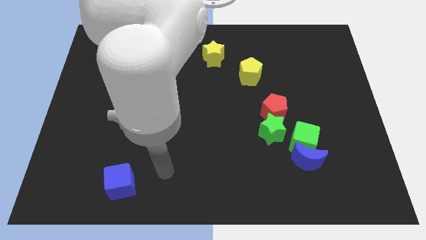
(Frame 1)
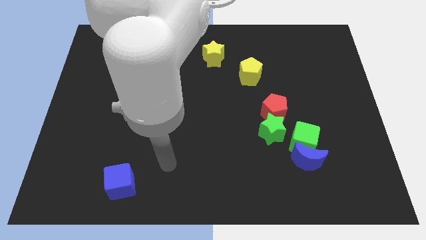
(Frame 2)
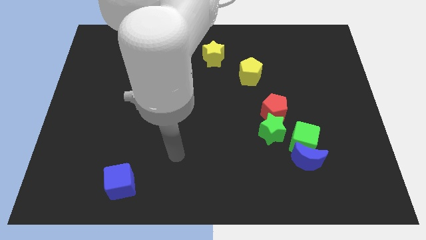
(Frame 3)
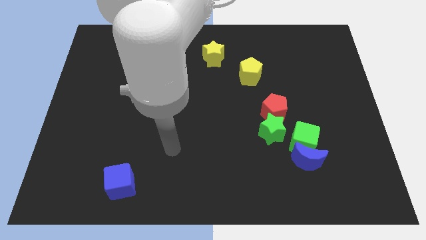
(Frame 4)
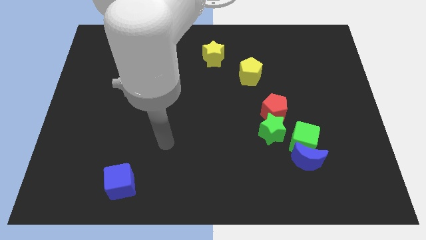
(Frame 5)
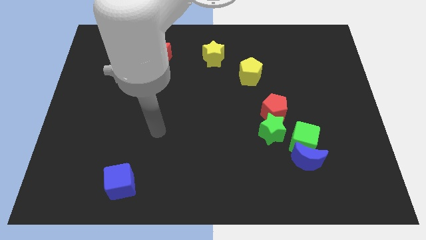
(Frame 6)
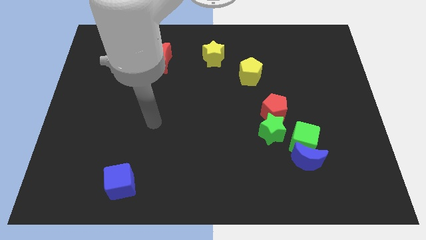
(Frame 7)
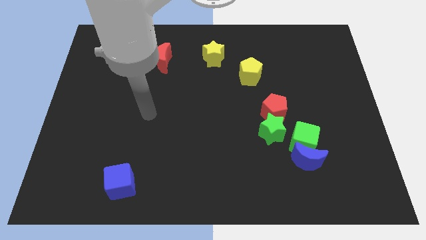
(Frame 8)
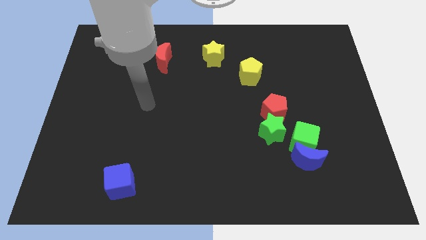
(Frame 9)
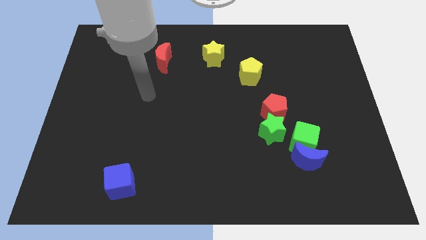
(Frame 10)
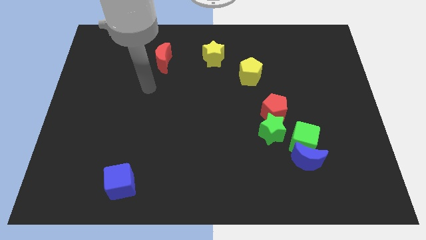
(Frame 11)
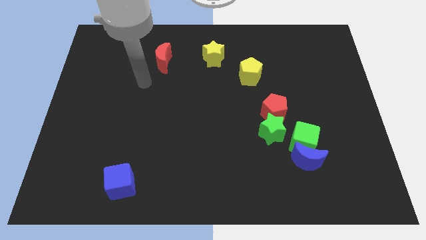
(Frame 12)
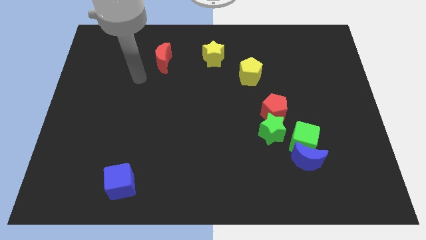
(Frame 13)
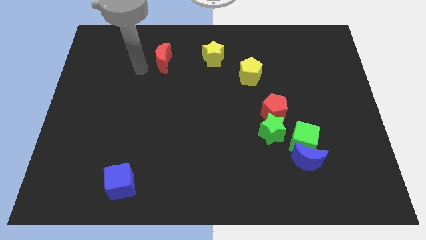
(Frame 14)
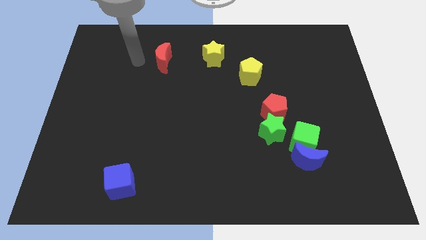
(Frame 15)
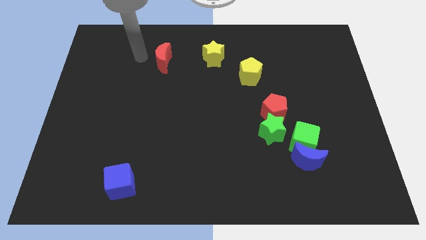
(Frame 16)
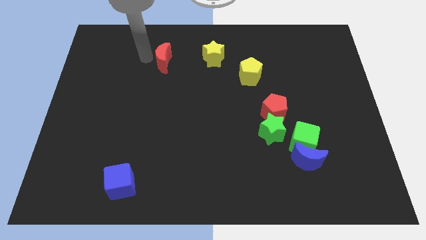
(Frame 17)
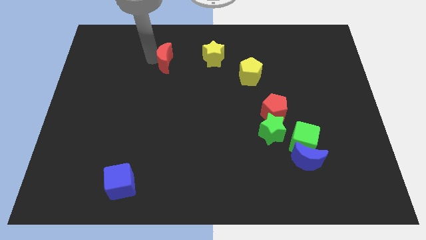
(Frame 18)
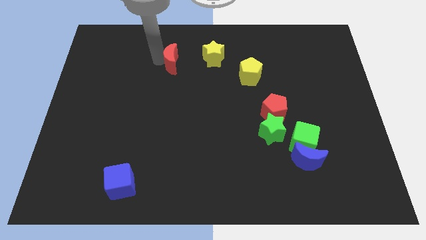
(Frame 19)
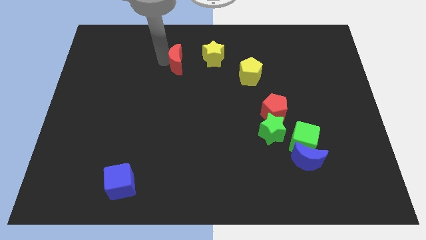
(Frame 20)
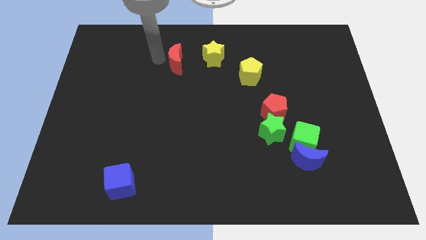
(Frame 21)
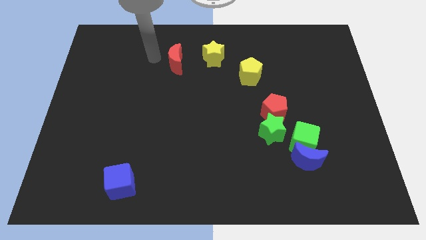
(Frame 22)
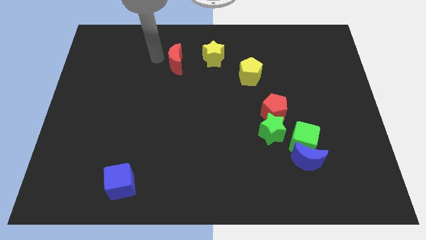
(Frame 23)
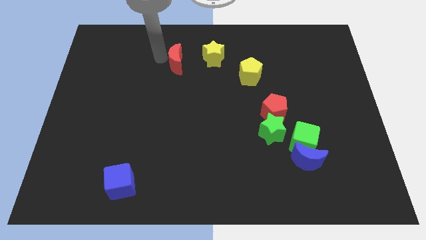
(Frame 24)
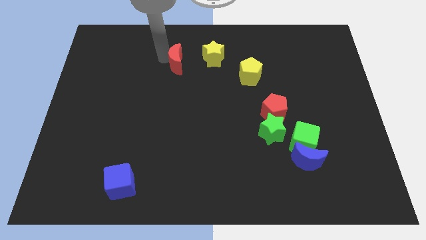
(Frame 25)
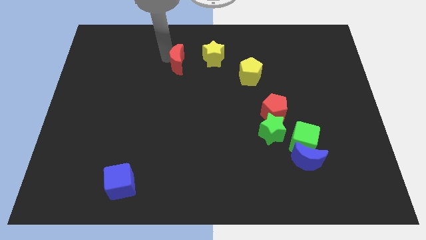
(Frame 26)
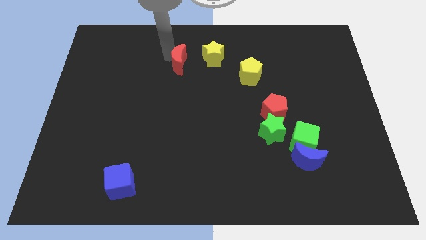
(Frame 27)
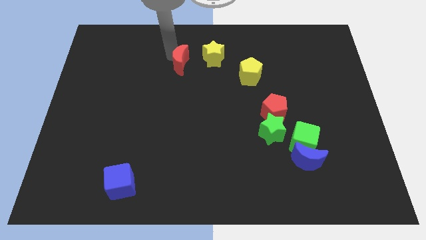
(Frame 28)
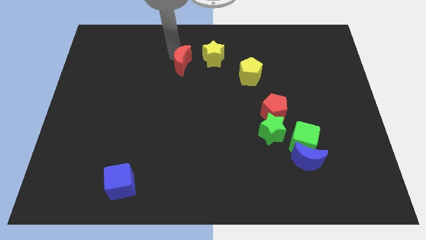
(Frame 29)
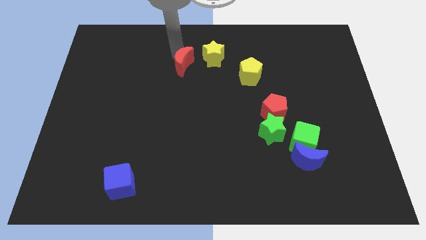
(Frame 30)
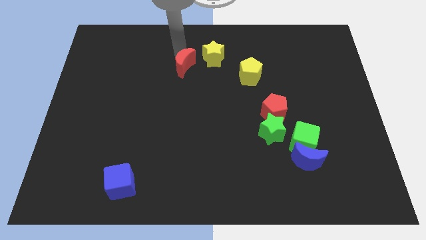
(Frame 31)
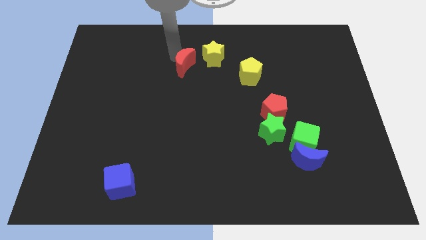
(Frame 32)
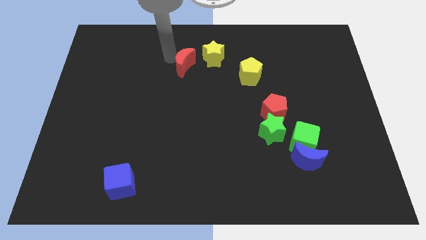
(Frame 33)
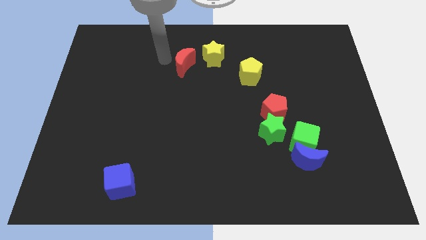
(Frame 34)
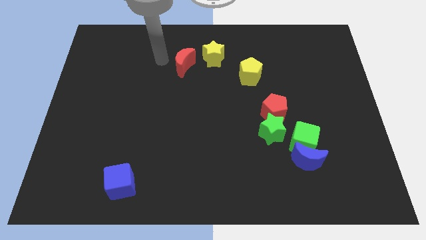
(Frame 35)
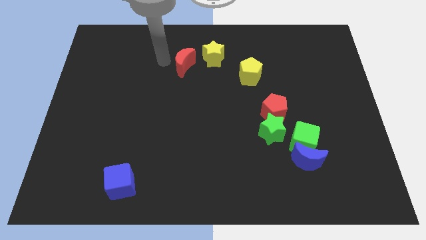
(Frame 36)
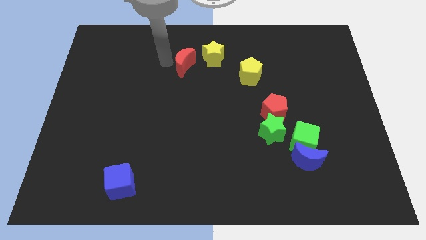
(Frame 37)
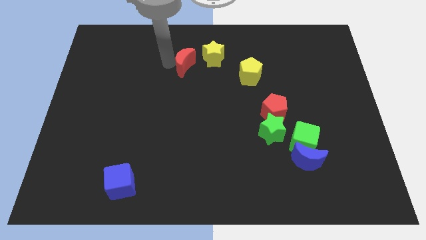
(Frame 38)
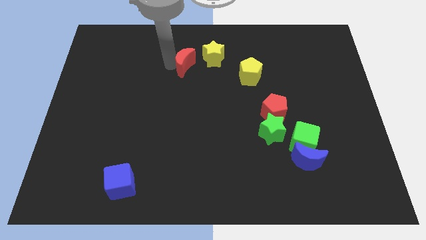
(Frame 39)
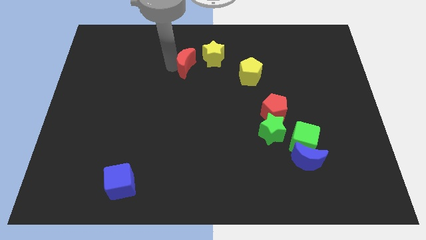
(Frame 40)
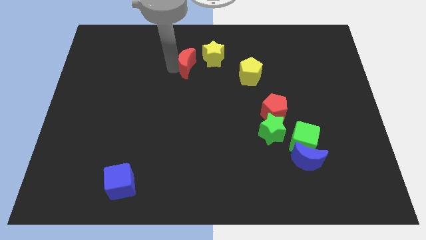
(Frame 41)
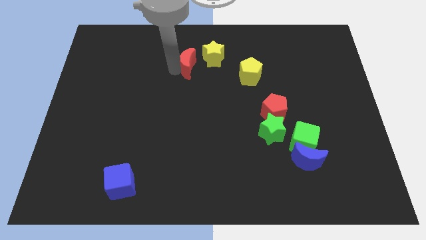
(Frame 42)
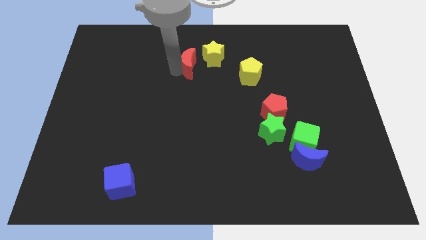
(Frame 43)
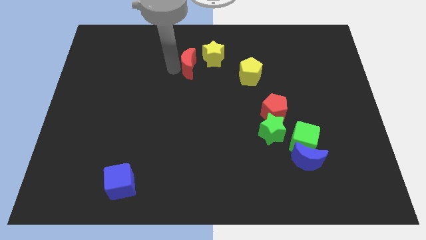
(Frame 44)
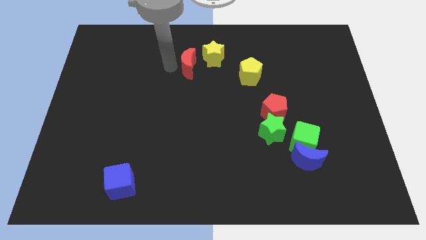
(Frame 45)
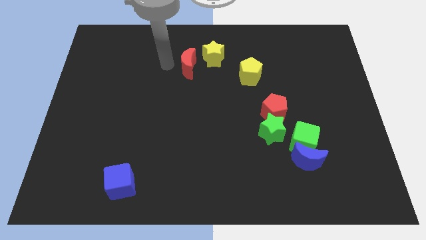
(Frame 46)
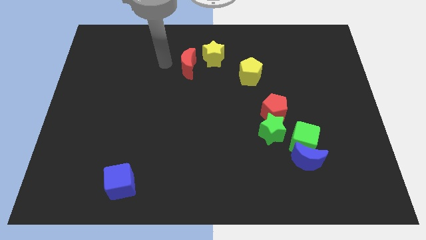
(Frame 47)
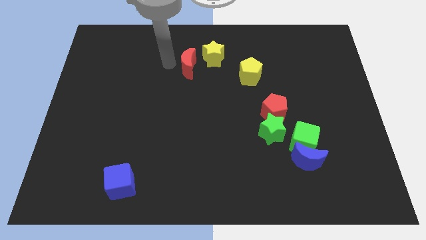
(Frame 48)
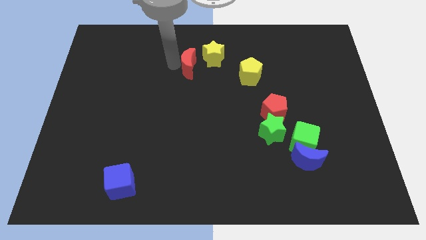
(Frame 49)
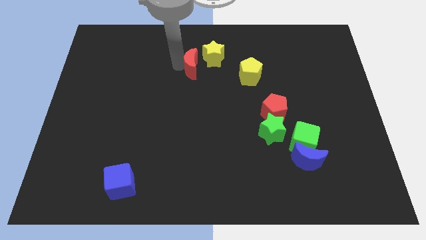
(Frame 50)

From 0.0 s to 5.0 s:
push the red moon to the right a little bit

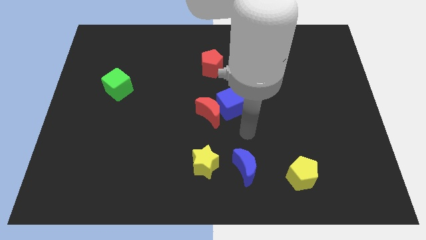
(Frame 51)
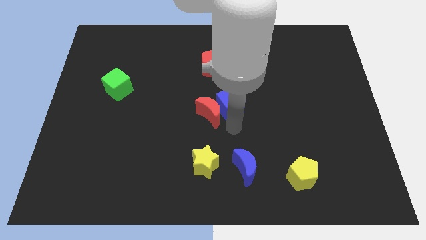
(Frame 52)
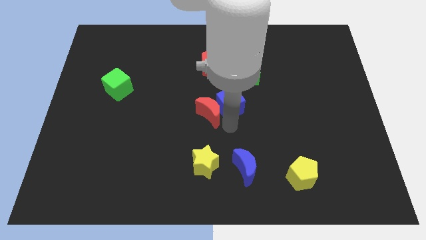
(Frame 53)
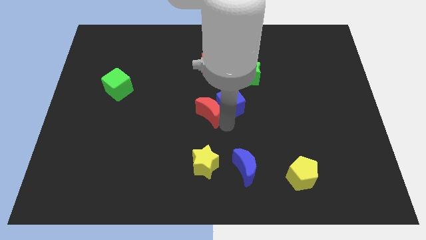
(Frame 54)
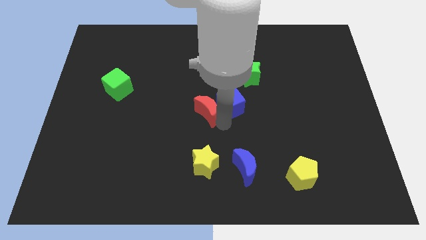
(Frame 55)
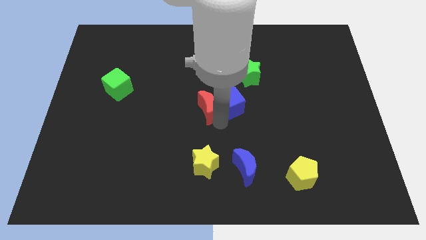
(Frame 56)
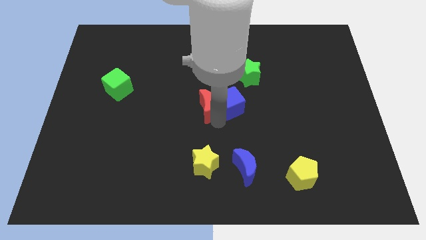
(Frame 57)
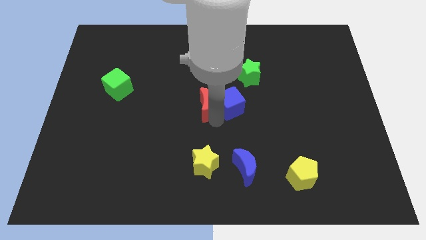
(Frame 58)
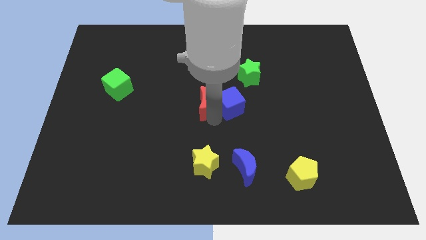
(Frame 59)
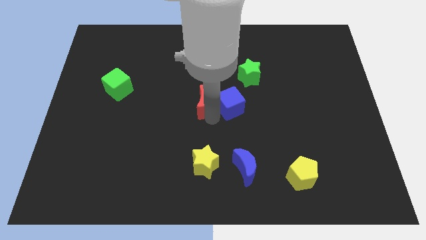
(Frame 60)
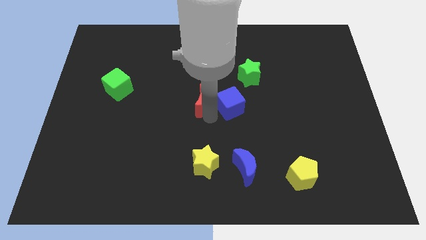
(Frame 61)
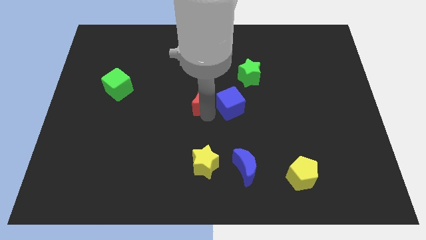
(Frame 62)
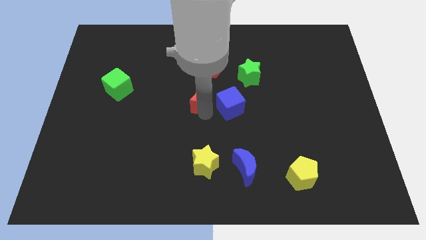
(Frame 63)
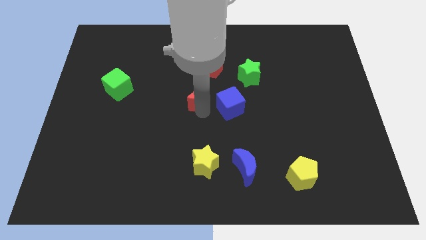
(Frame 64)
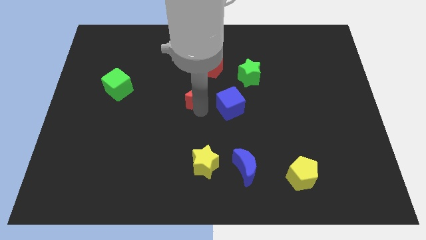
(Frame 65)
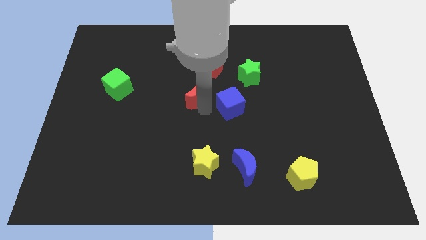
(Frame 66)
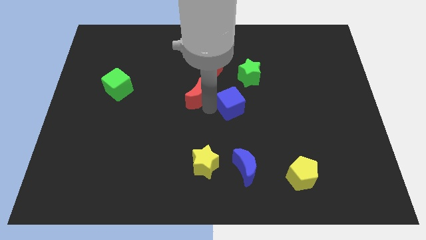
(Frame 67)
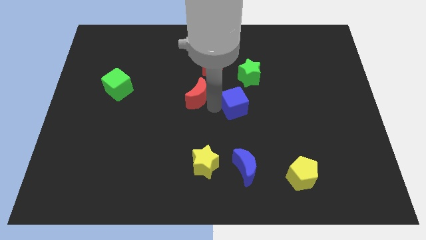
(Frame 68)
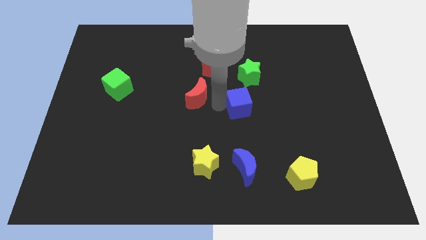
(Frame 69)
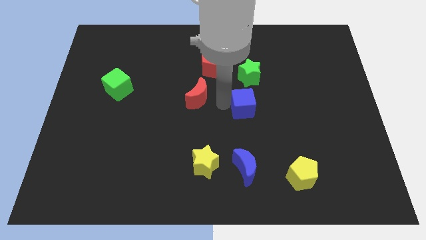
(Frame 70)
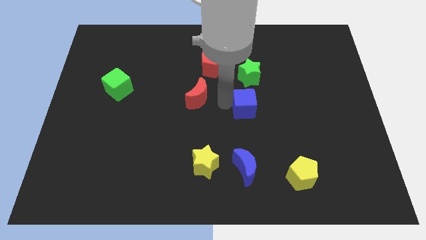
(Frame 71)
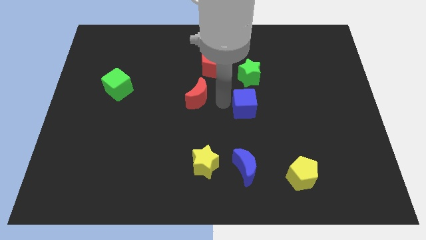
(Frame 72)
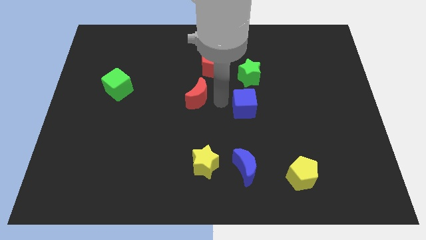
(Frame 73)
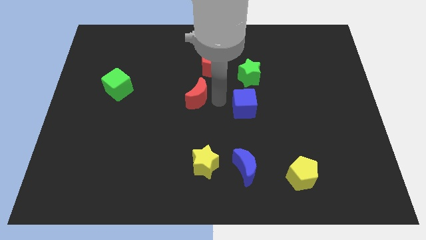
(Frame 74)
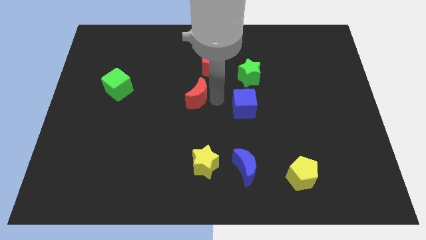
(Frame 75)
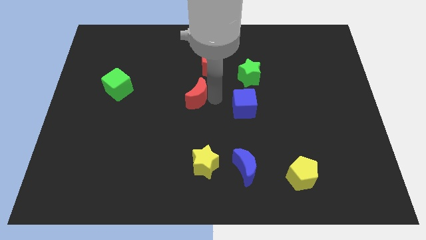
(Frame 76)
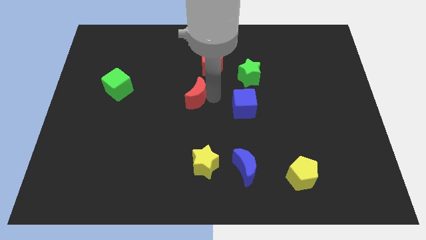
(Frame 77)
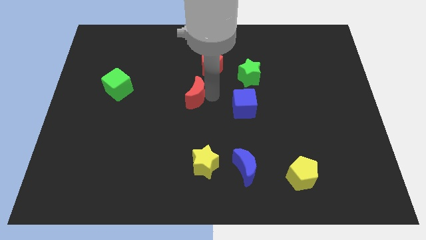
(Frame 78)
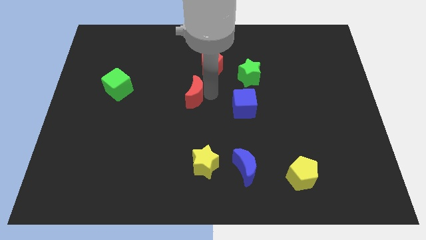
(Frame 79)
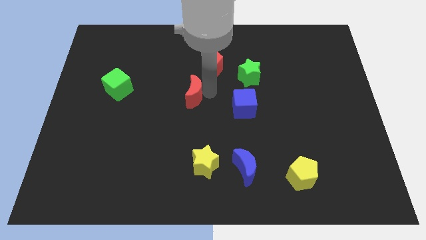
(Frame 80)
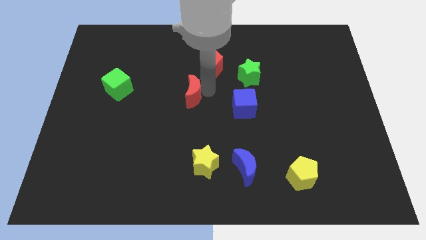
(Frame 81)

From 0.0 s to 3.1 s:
slide the red moon upwards and then to the left a little bit

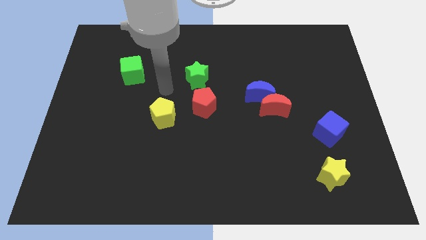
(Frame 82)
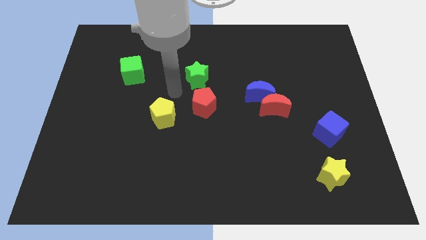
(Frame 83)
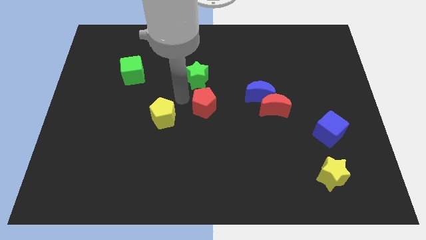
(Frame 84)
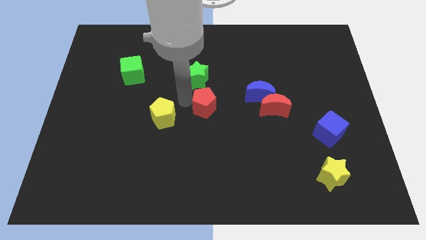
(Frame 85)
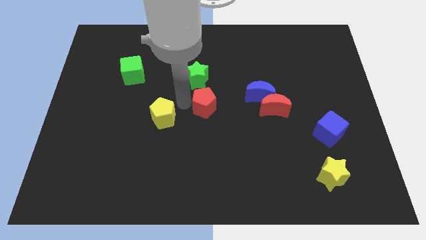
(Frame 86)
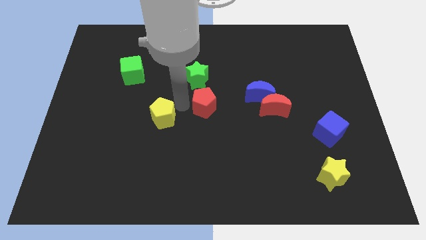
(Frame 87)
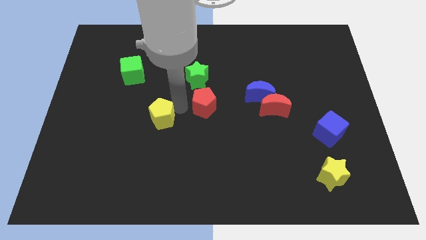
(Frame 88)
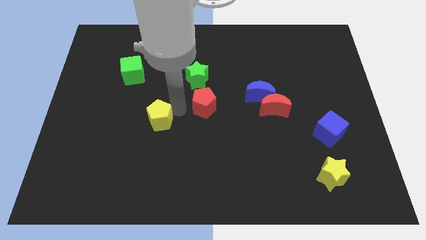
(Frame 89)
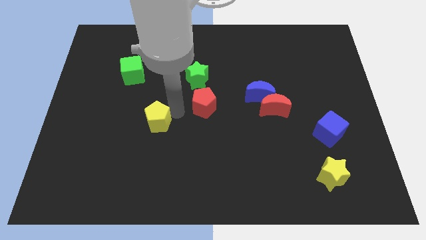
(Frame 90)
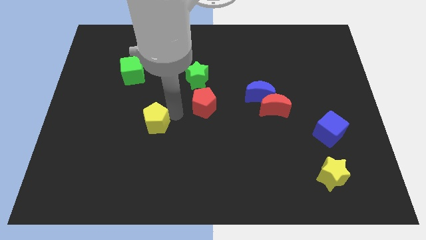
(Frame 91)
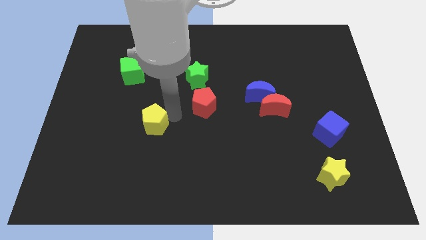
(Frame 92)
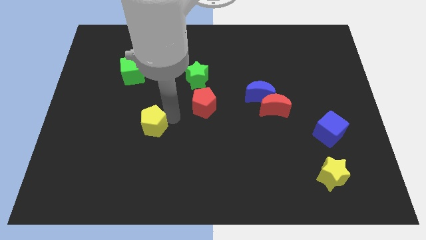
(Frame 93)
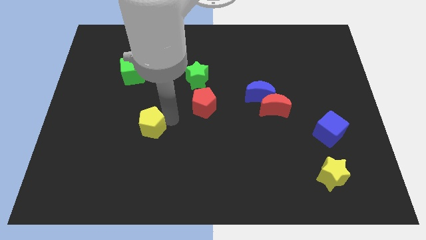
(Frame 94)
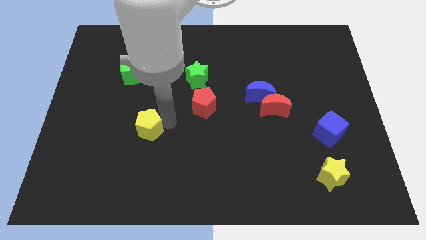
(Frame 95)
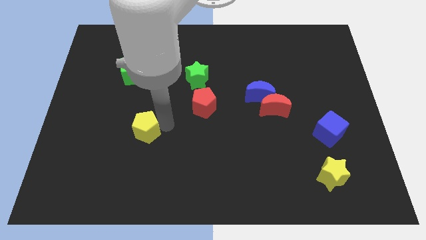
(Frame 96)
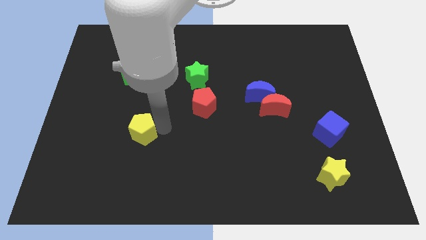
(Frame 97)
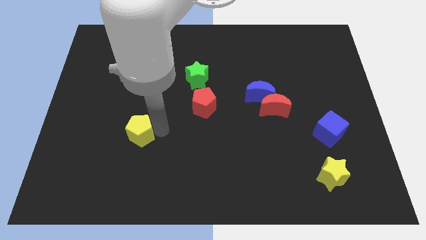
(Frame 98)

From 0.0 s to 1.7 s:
slightly move the yellow pentagon down and then left
